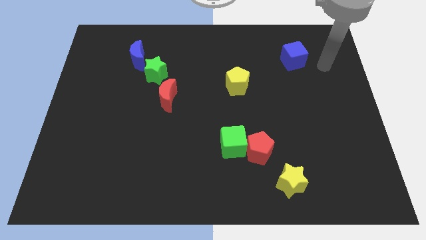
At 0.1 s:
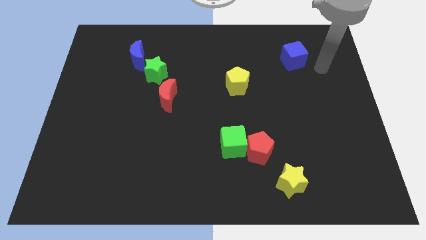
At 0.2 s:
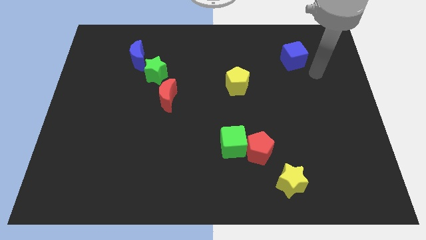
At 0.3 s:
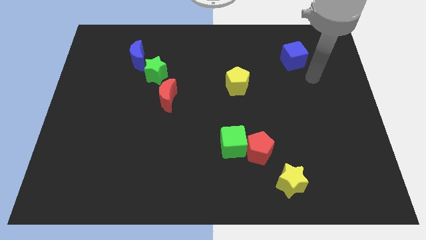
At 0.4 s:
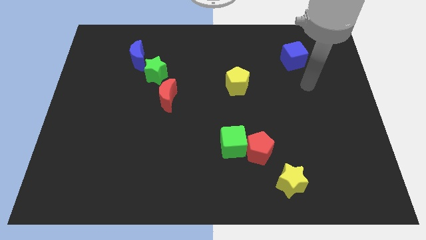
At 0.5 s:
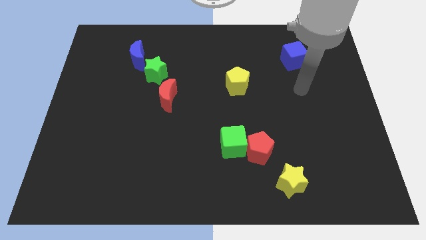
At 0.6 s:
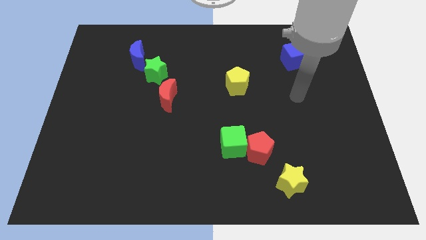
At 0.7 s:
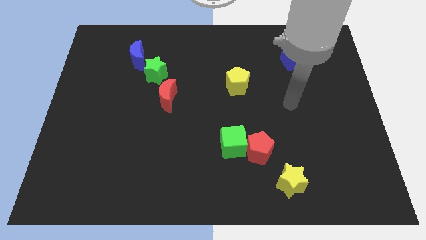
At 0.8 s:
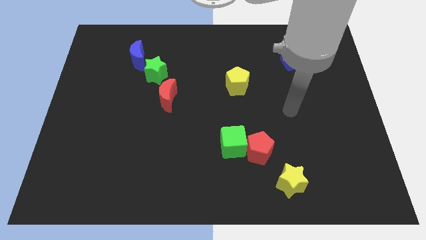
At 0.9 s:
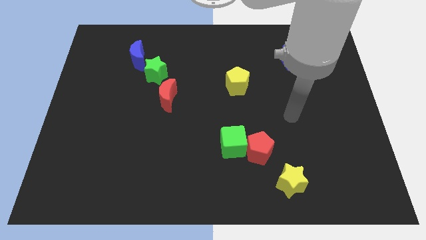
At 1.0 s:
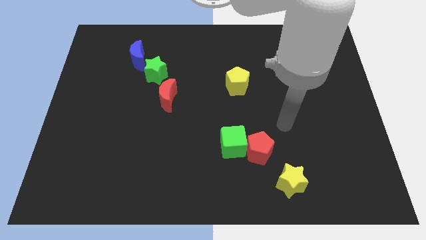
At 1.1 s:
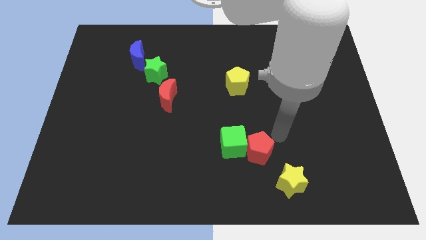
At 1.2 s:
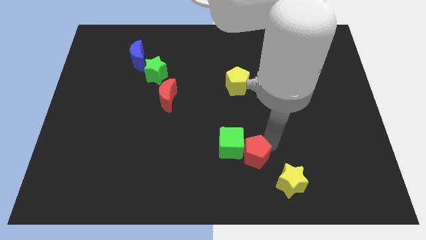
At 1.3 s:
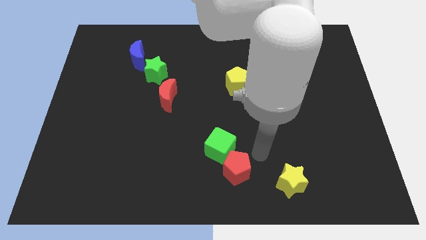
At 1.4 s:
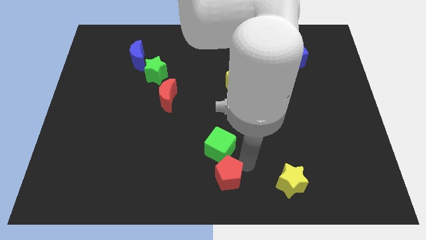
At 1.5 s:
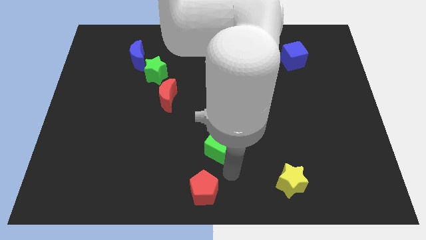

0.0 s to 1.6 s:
pull the green cube apart from the red pentagon

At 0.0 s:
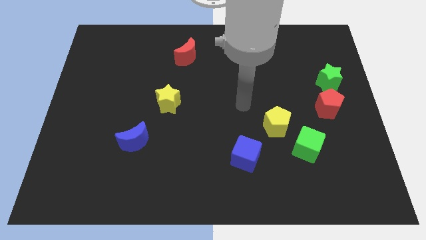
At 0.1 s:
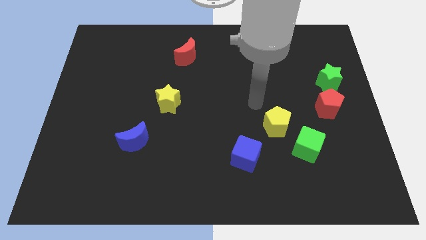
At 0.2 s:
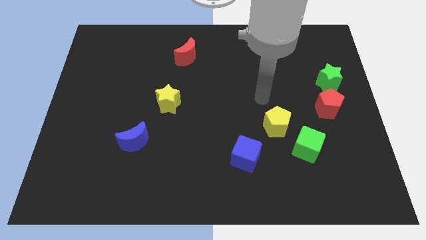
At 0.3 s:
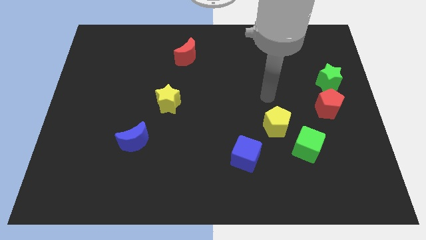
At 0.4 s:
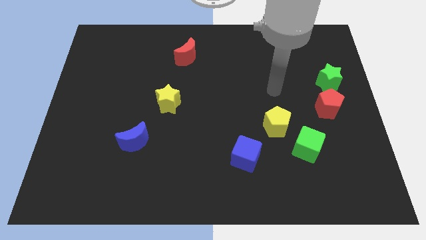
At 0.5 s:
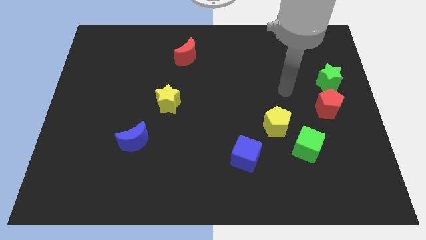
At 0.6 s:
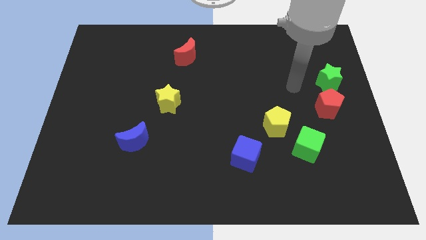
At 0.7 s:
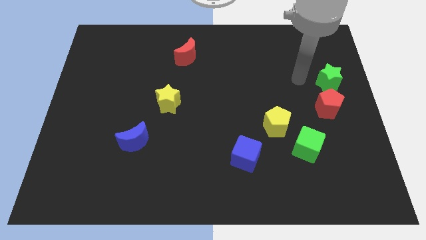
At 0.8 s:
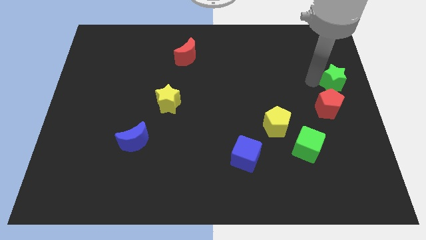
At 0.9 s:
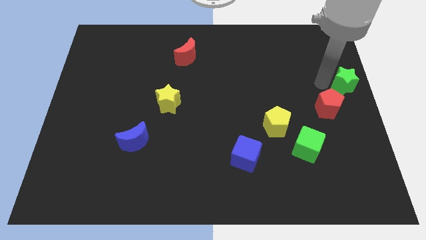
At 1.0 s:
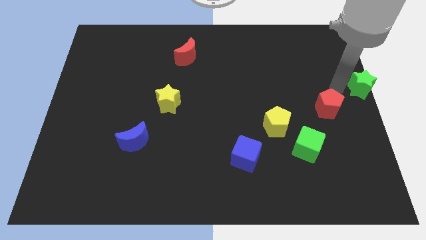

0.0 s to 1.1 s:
separate the red pentagon from the green star

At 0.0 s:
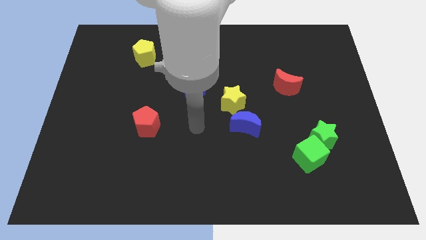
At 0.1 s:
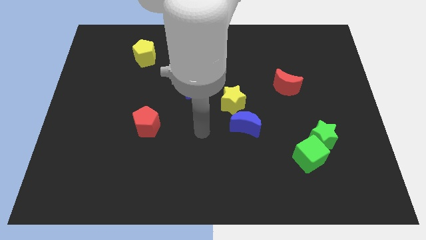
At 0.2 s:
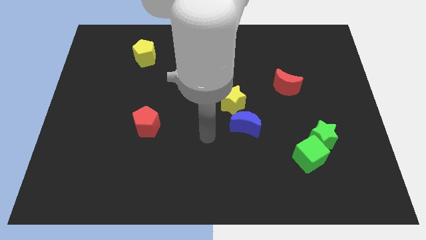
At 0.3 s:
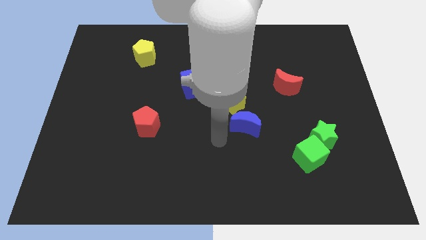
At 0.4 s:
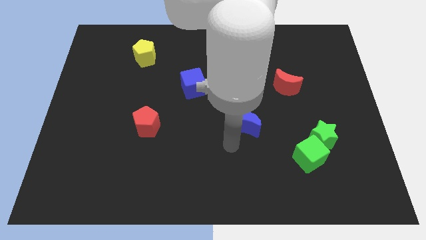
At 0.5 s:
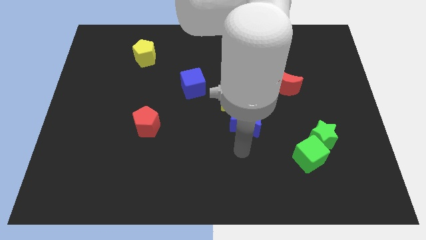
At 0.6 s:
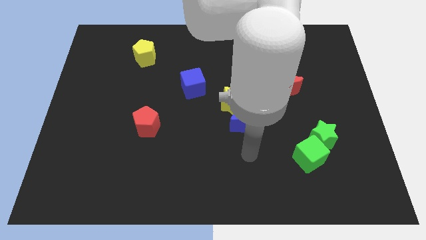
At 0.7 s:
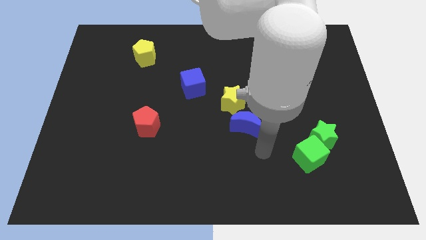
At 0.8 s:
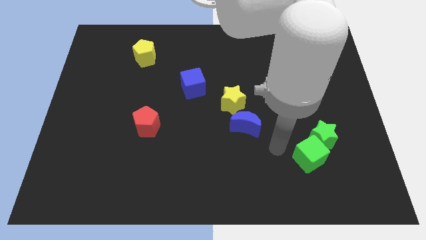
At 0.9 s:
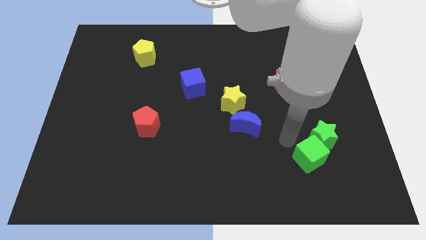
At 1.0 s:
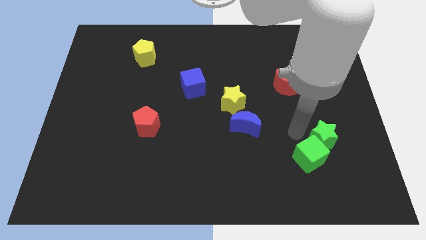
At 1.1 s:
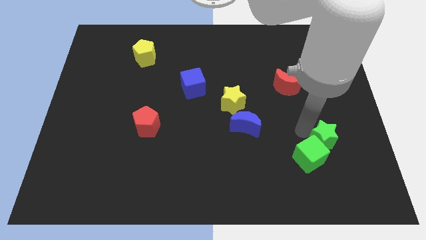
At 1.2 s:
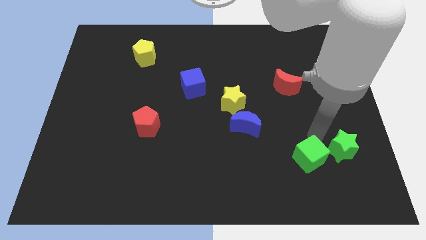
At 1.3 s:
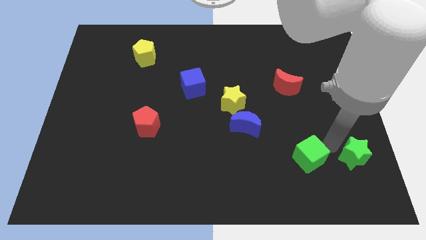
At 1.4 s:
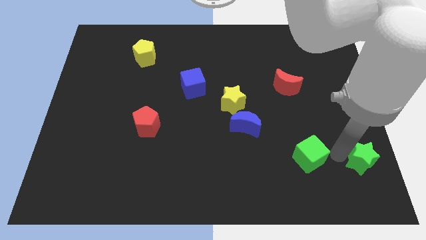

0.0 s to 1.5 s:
separate the green cube from the green star

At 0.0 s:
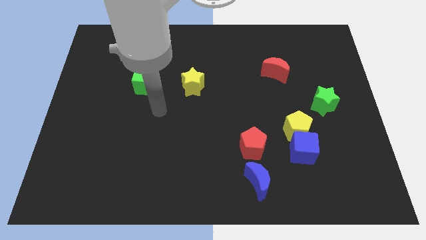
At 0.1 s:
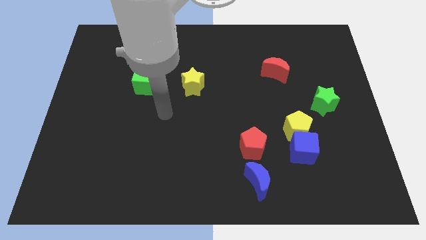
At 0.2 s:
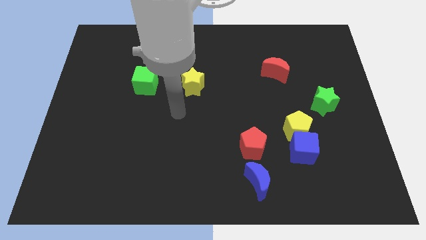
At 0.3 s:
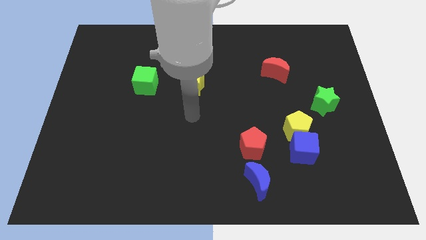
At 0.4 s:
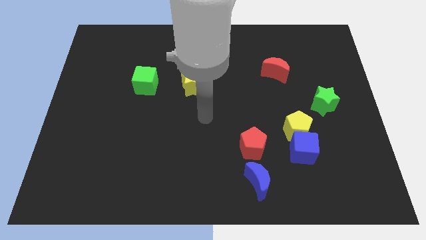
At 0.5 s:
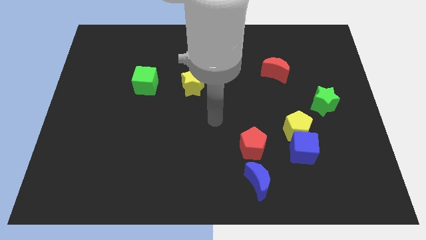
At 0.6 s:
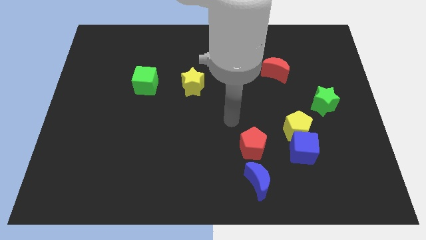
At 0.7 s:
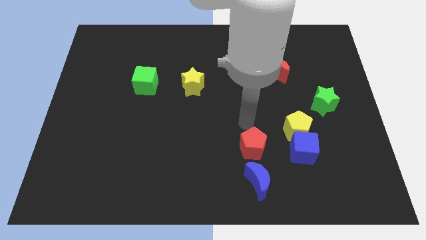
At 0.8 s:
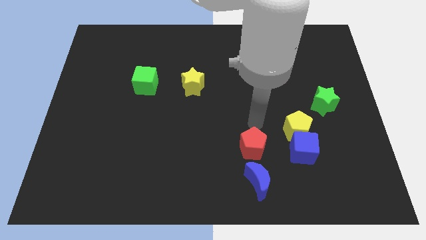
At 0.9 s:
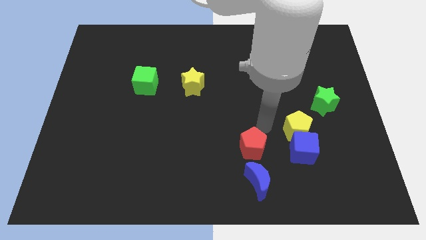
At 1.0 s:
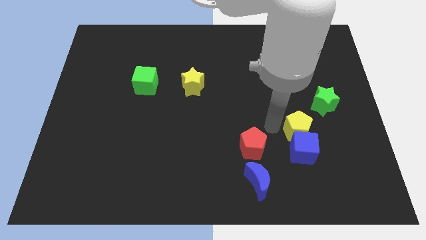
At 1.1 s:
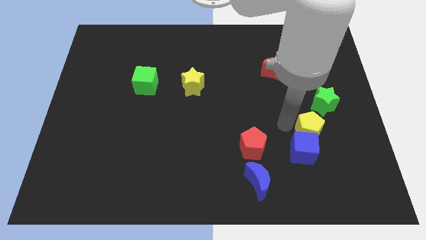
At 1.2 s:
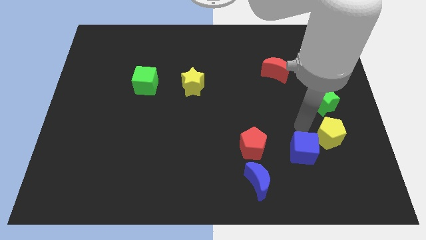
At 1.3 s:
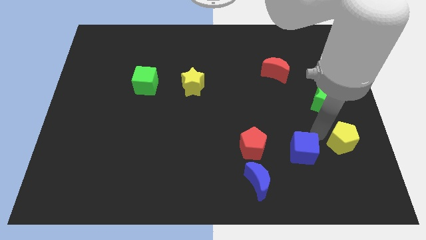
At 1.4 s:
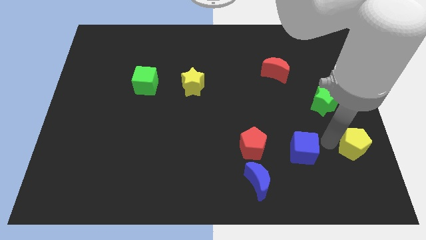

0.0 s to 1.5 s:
pull the blue cube apart from the yellow pentagon

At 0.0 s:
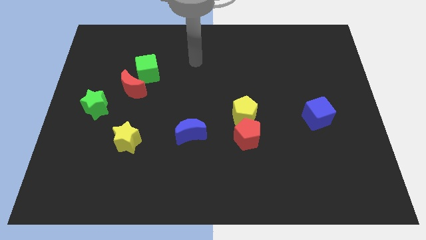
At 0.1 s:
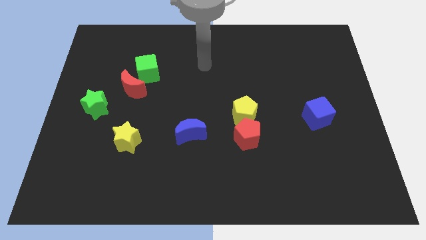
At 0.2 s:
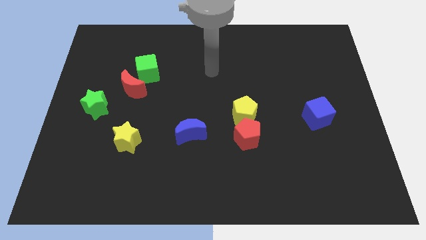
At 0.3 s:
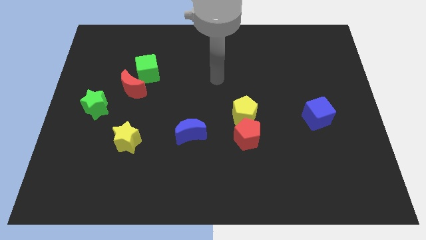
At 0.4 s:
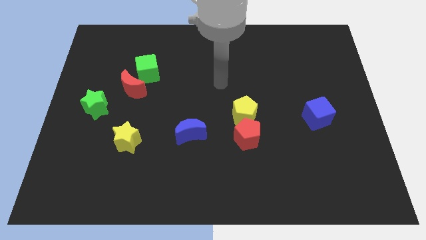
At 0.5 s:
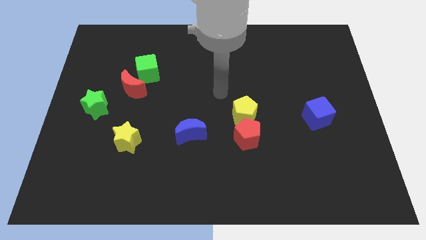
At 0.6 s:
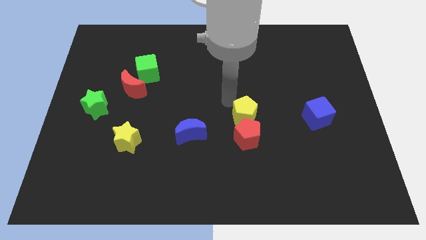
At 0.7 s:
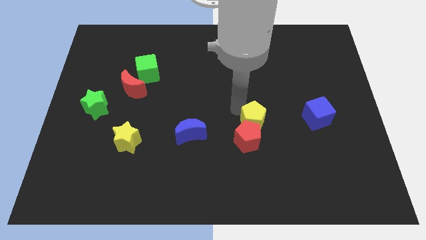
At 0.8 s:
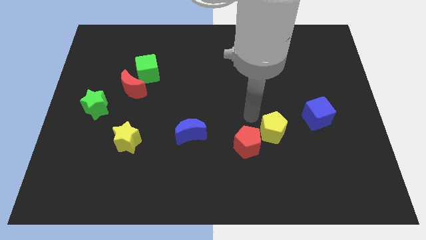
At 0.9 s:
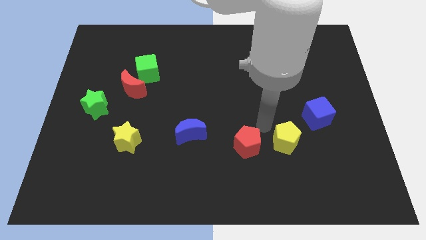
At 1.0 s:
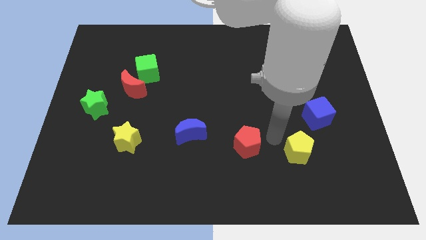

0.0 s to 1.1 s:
pull the red pentagon apart from the yellow pentagon

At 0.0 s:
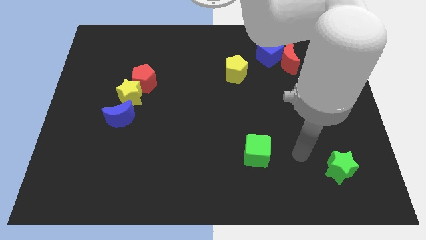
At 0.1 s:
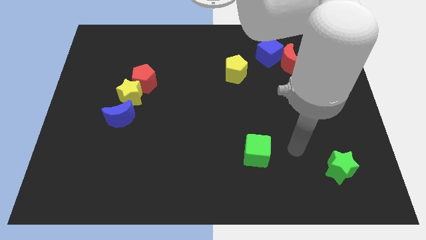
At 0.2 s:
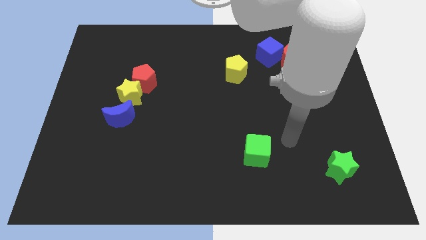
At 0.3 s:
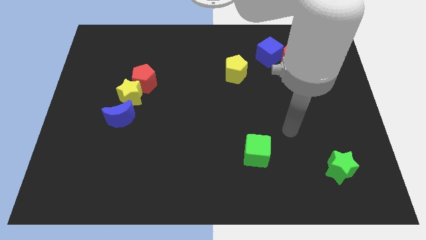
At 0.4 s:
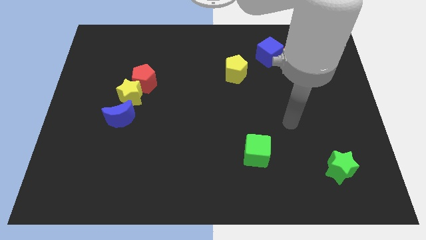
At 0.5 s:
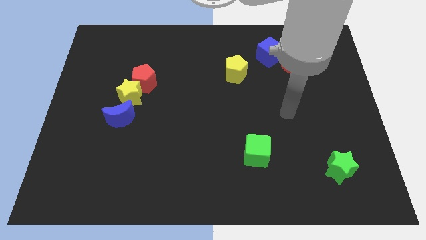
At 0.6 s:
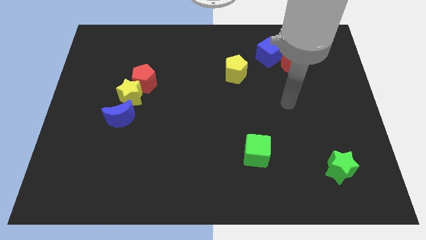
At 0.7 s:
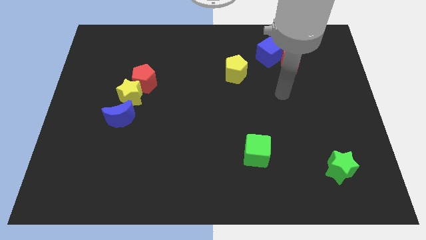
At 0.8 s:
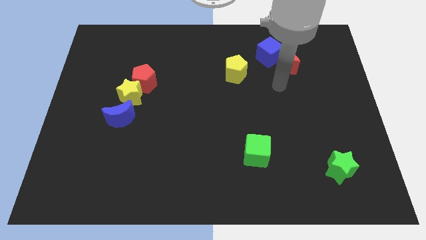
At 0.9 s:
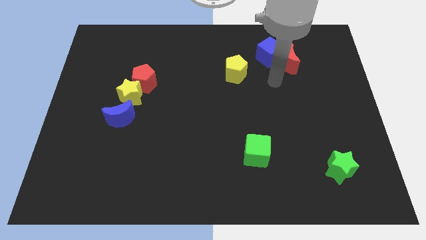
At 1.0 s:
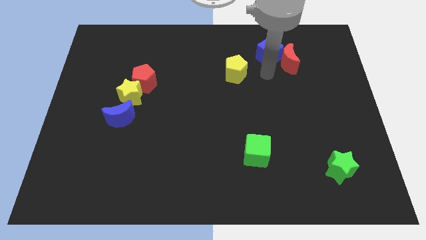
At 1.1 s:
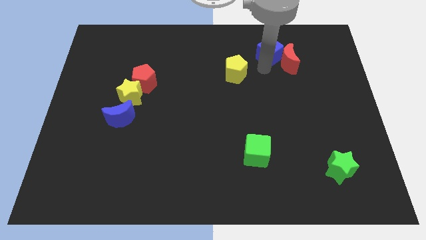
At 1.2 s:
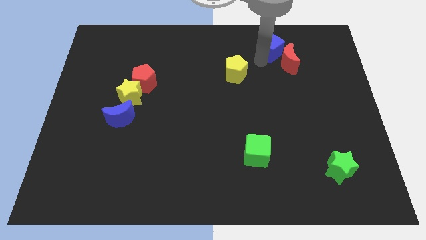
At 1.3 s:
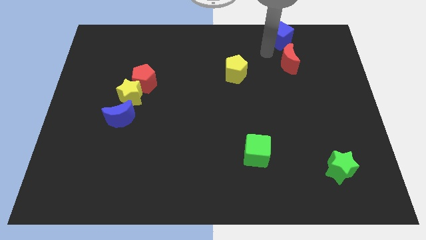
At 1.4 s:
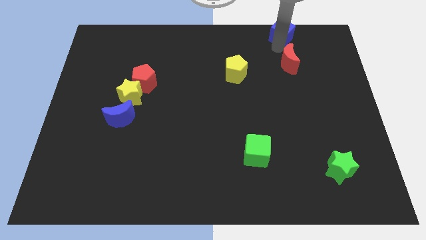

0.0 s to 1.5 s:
separate the red moon from the blue cube

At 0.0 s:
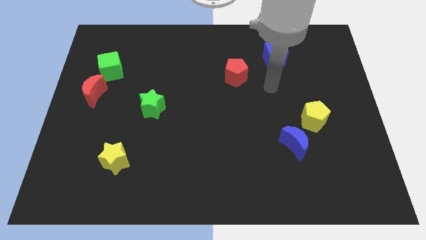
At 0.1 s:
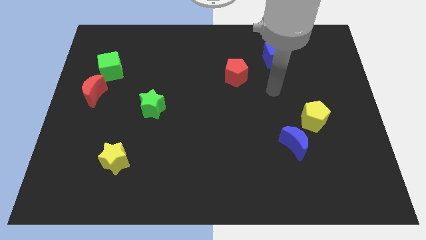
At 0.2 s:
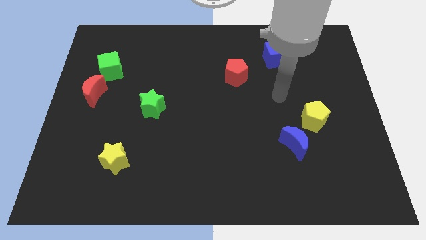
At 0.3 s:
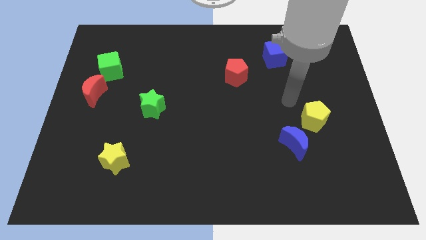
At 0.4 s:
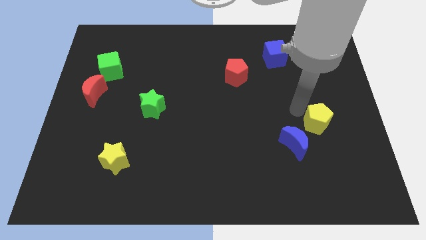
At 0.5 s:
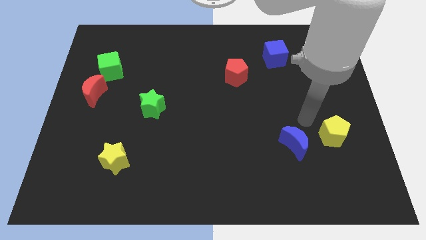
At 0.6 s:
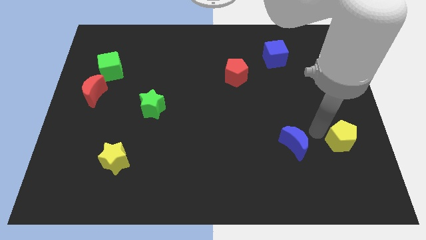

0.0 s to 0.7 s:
move the blue moon away from the yellow pentagon

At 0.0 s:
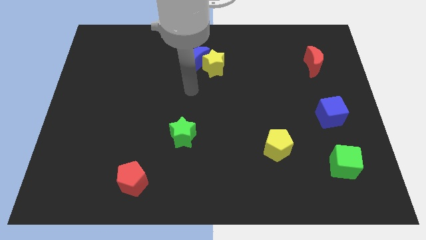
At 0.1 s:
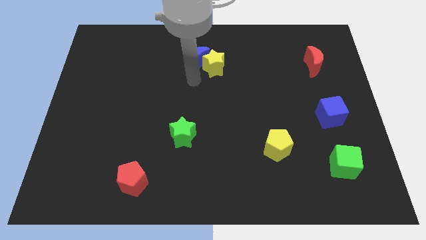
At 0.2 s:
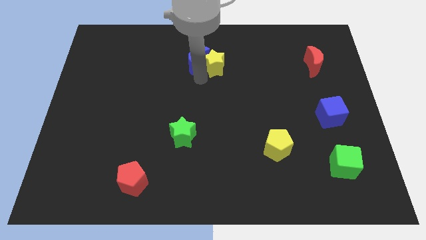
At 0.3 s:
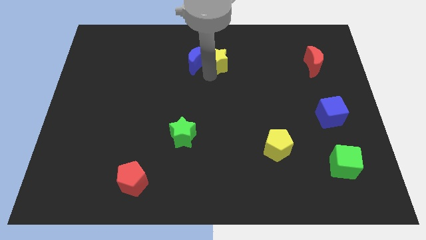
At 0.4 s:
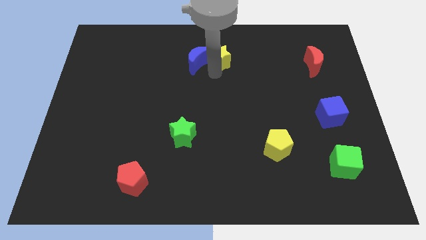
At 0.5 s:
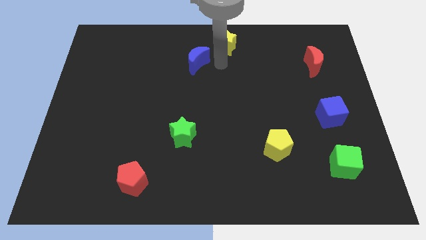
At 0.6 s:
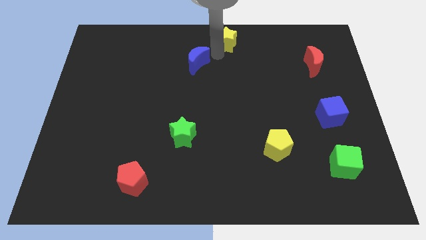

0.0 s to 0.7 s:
separate the blue moon from the yellow star
